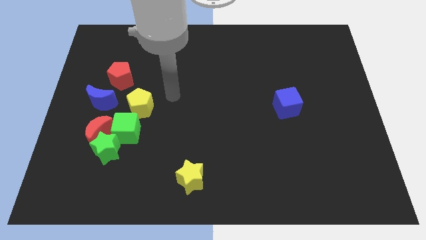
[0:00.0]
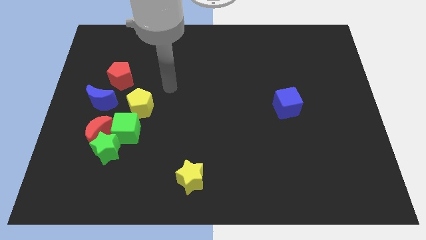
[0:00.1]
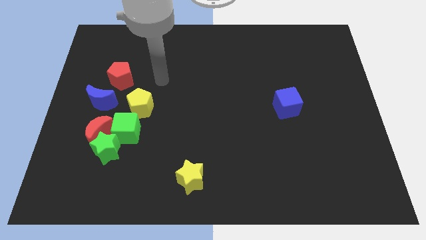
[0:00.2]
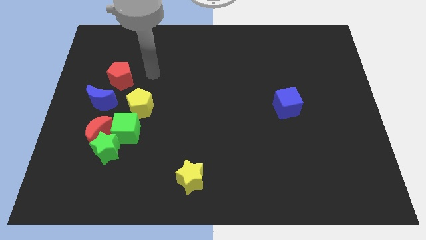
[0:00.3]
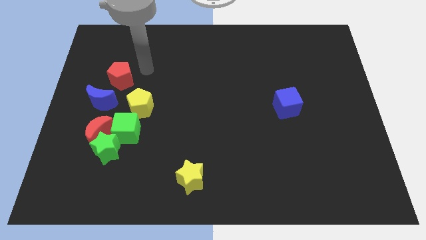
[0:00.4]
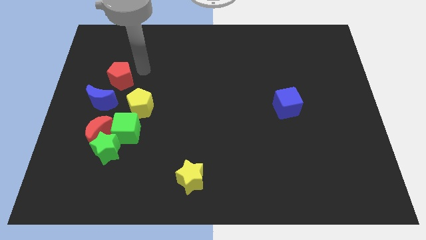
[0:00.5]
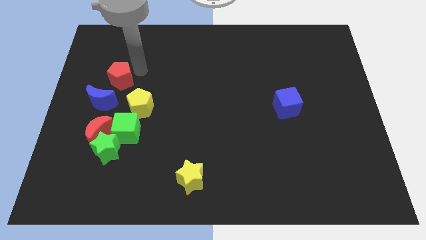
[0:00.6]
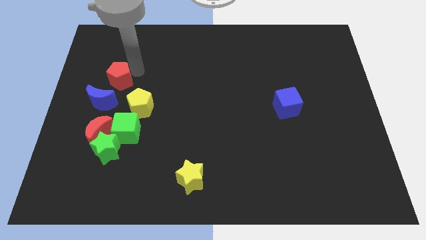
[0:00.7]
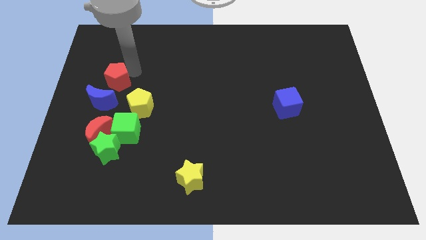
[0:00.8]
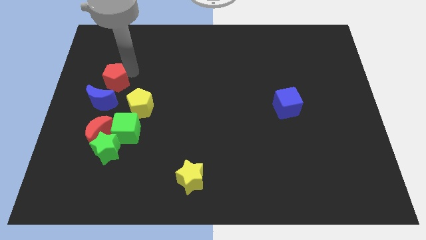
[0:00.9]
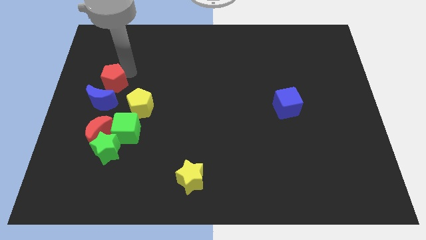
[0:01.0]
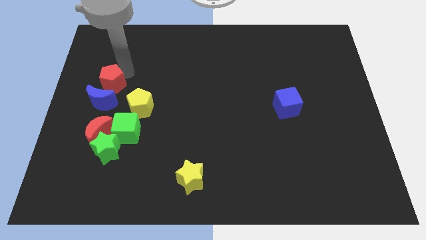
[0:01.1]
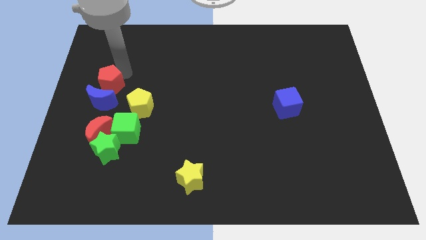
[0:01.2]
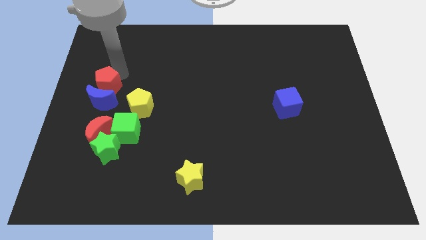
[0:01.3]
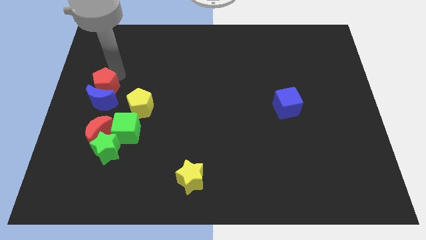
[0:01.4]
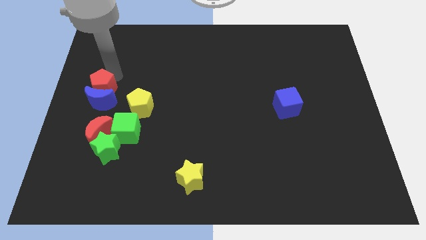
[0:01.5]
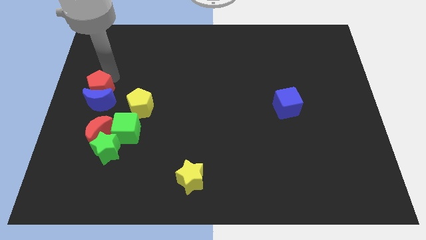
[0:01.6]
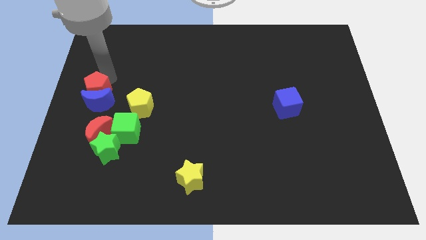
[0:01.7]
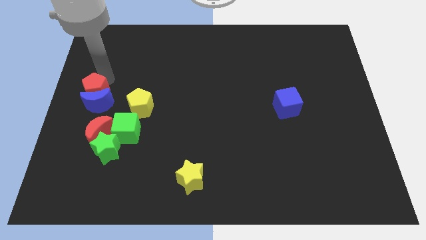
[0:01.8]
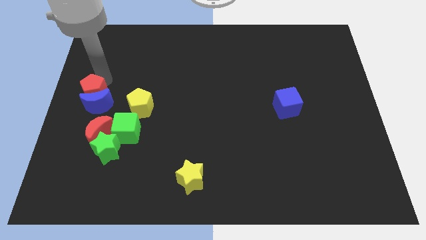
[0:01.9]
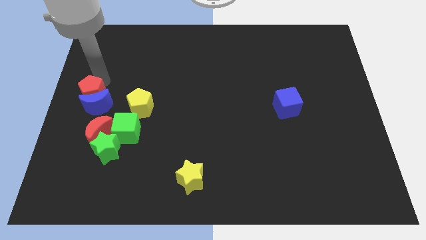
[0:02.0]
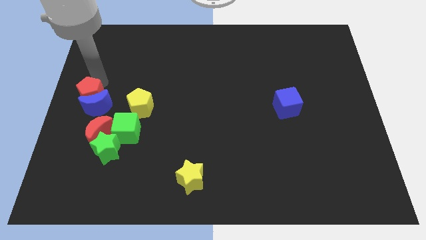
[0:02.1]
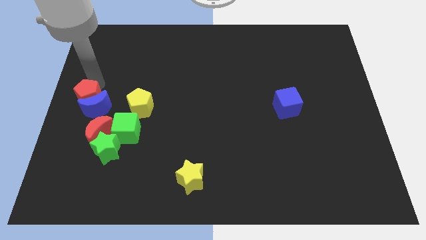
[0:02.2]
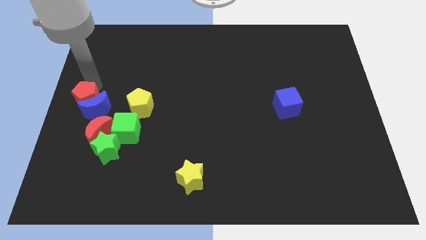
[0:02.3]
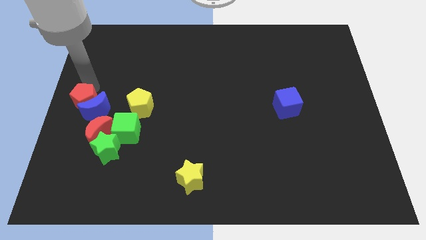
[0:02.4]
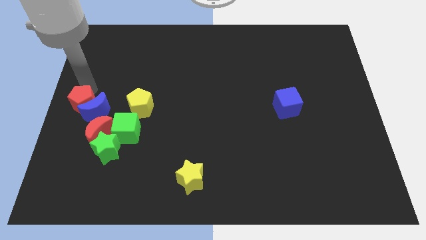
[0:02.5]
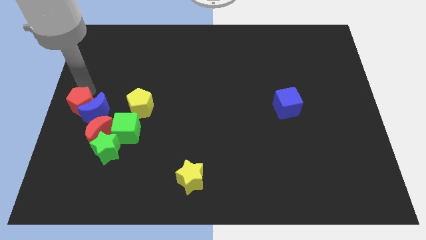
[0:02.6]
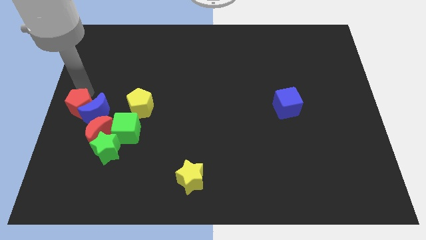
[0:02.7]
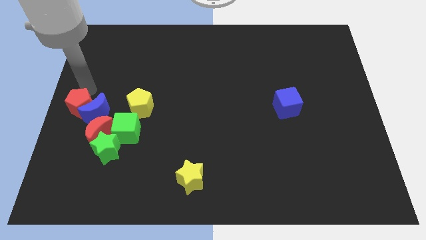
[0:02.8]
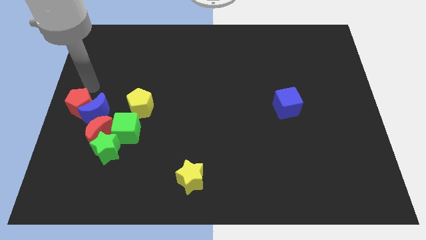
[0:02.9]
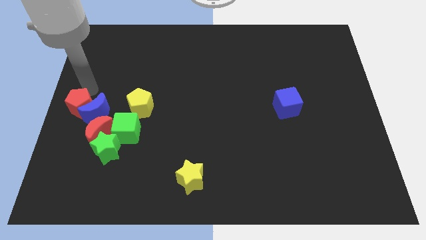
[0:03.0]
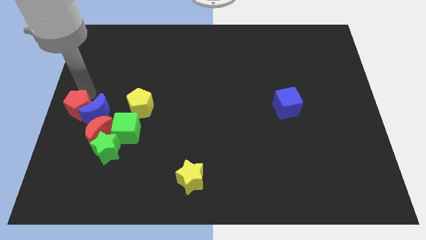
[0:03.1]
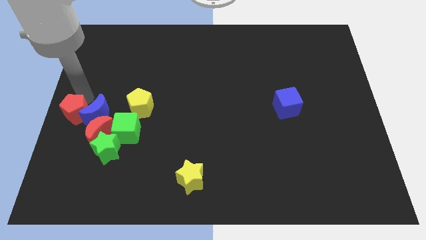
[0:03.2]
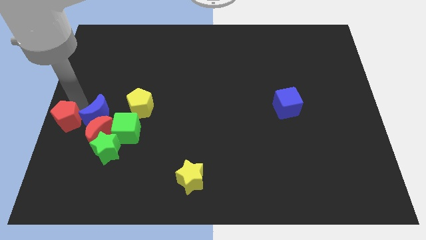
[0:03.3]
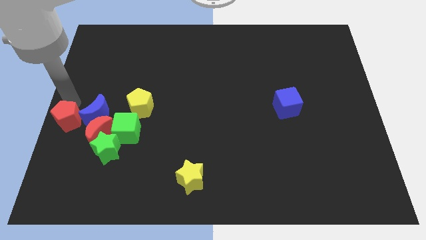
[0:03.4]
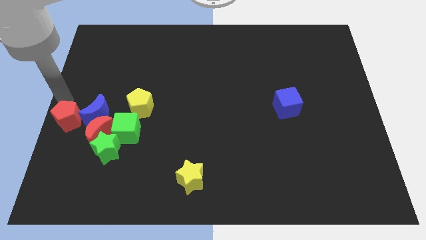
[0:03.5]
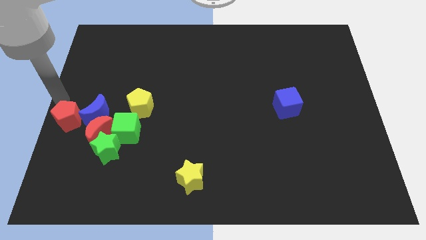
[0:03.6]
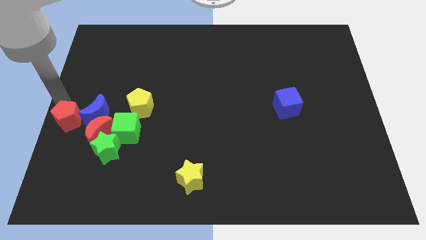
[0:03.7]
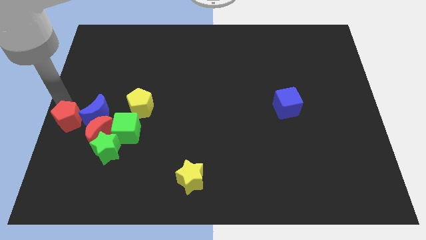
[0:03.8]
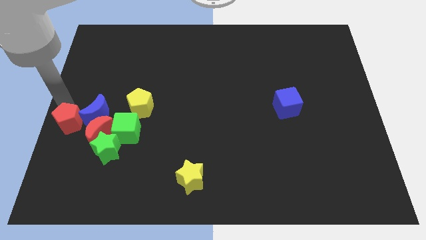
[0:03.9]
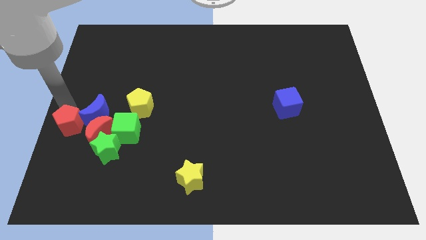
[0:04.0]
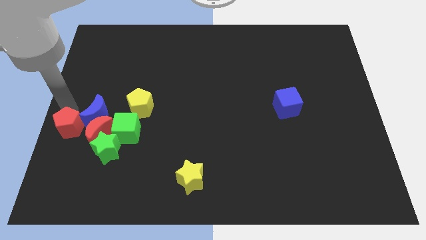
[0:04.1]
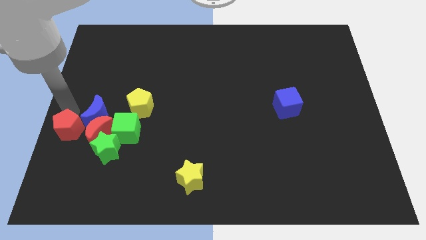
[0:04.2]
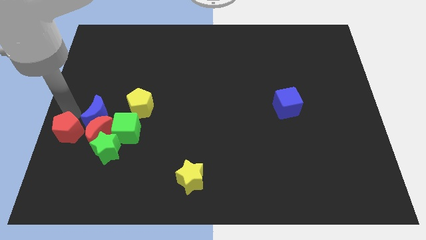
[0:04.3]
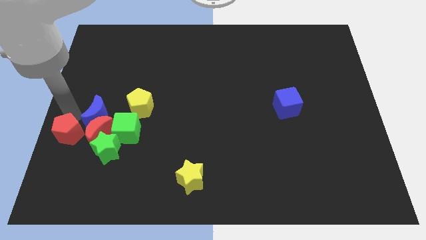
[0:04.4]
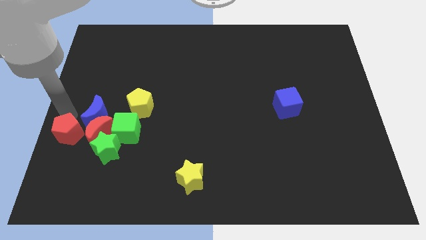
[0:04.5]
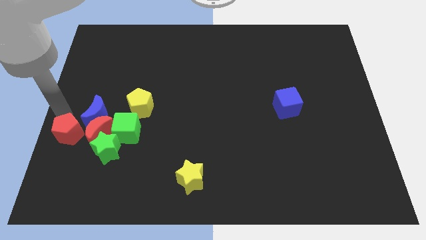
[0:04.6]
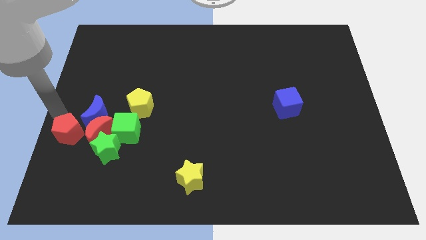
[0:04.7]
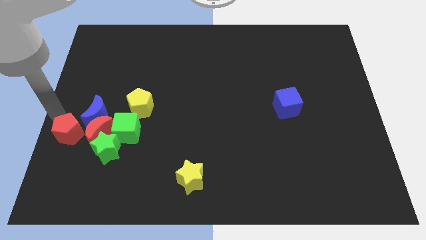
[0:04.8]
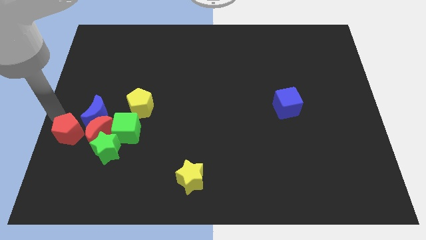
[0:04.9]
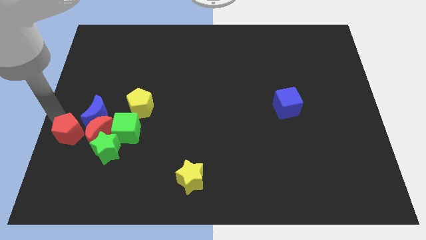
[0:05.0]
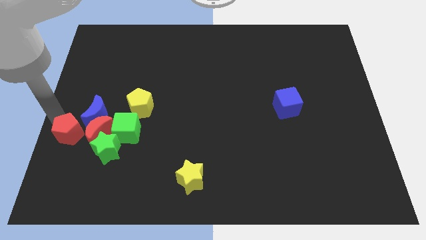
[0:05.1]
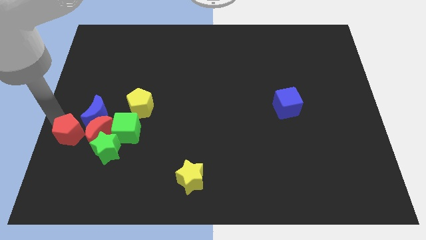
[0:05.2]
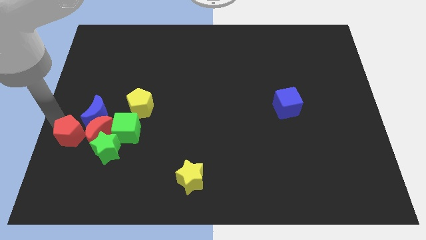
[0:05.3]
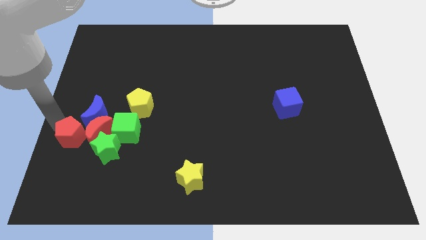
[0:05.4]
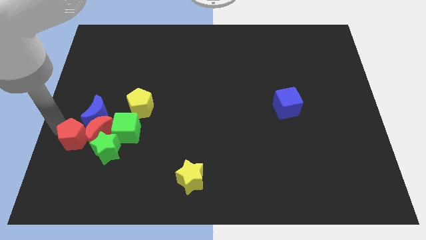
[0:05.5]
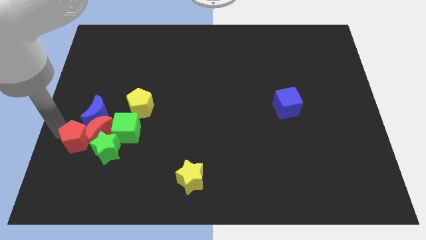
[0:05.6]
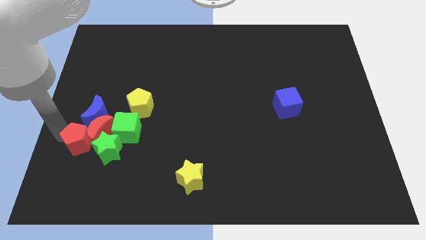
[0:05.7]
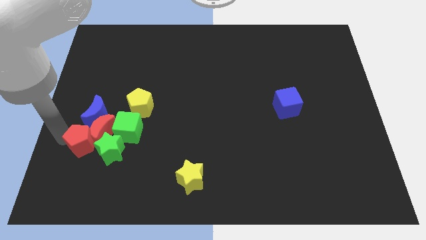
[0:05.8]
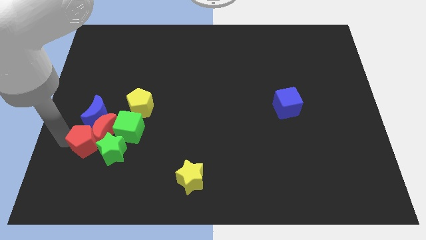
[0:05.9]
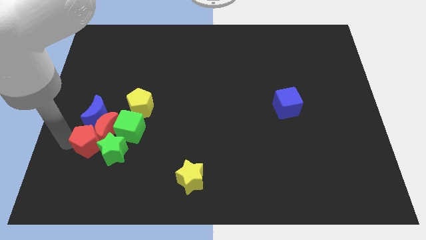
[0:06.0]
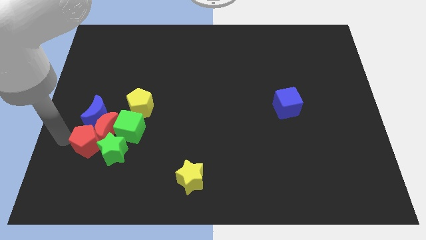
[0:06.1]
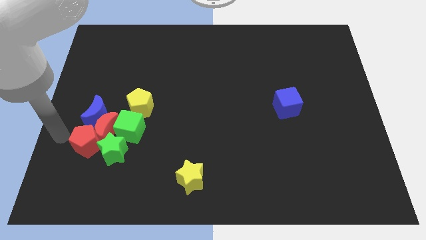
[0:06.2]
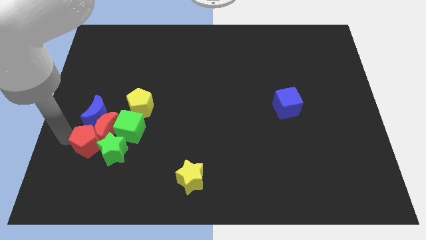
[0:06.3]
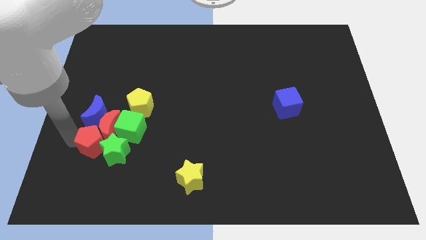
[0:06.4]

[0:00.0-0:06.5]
move the red pentagon next to the green star

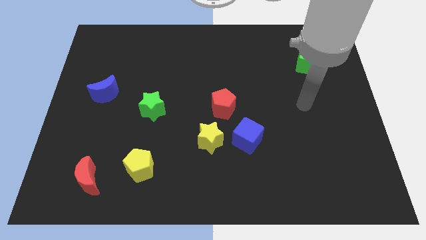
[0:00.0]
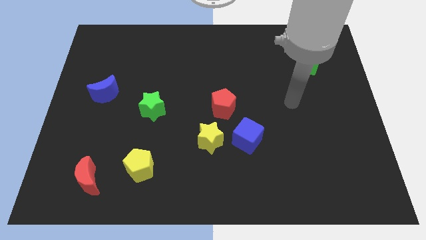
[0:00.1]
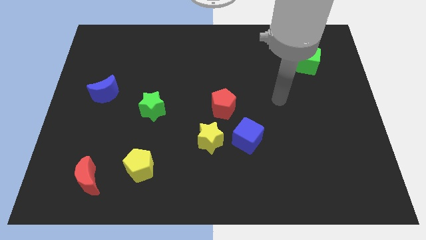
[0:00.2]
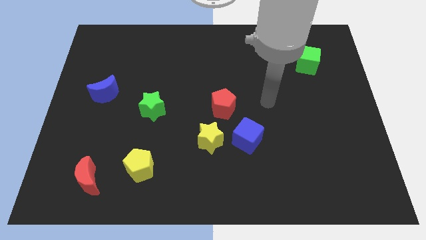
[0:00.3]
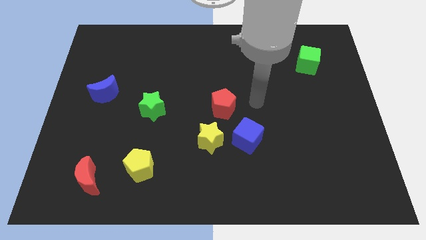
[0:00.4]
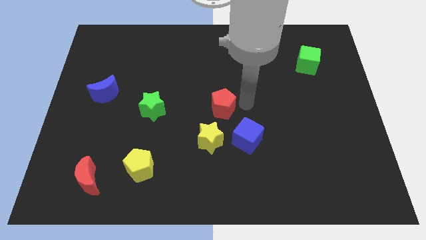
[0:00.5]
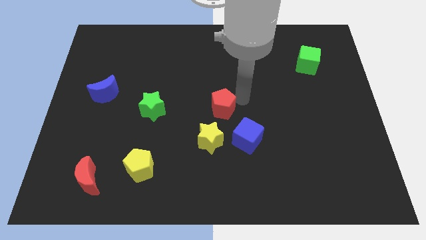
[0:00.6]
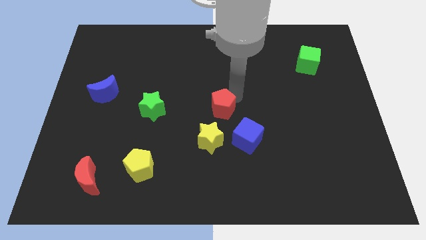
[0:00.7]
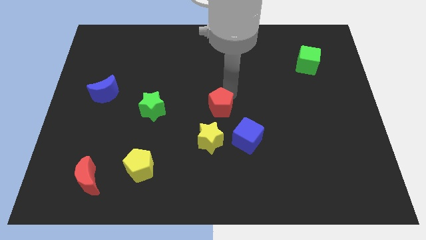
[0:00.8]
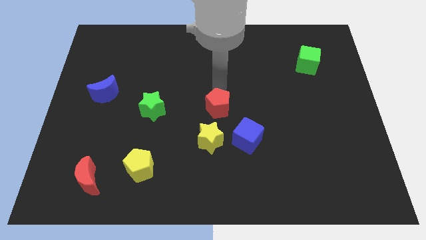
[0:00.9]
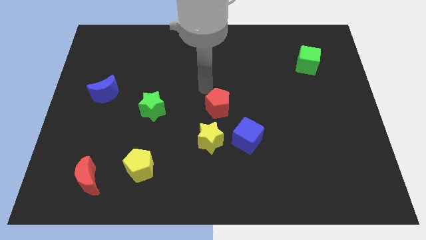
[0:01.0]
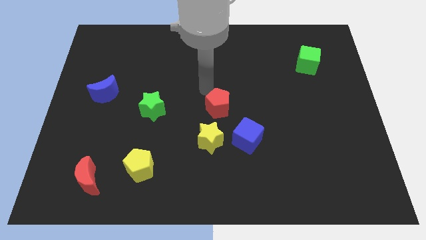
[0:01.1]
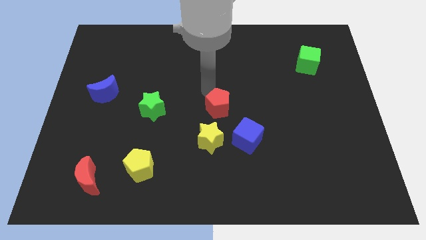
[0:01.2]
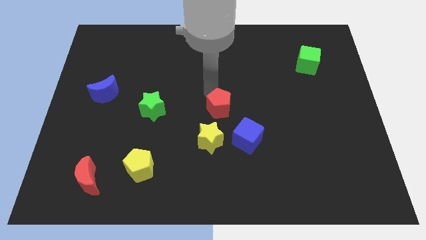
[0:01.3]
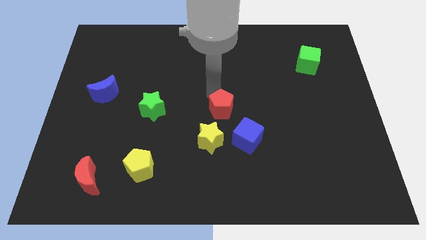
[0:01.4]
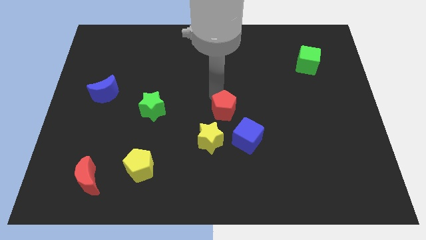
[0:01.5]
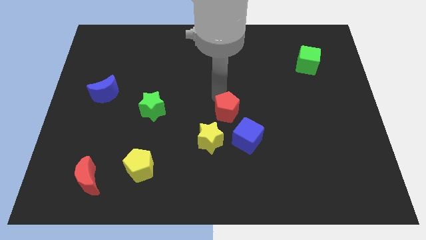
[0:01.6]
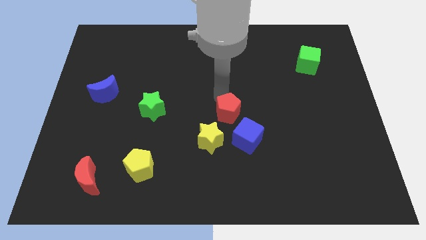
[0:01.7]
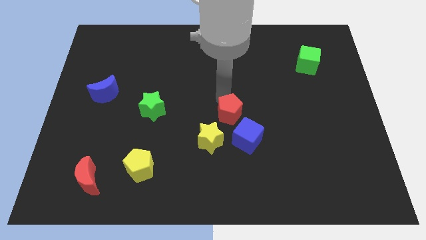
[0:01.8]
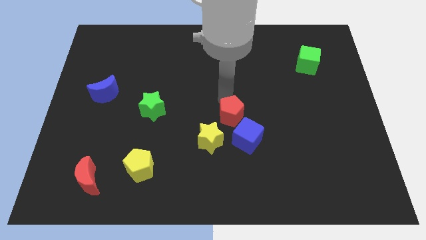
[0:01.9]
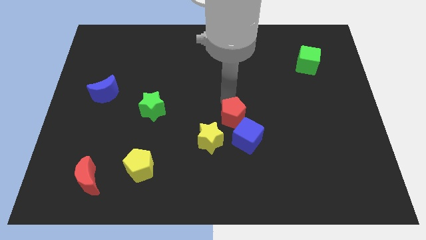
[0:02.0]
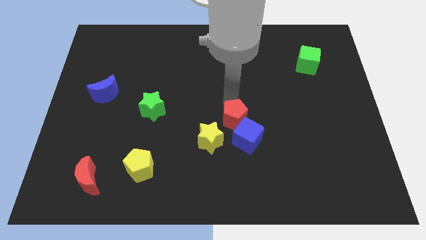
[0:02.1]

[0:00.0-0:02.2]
slide the red pentagon to the blue cube
